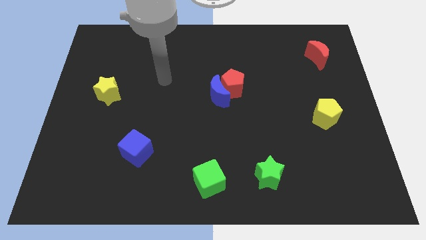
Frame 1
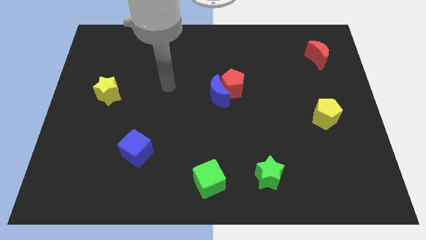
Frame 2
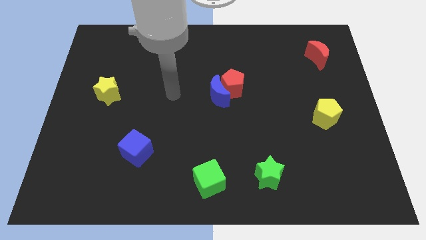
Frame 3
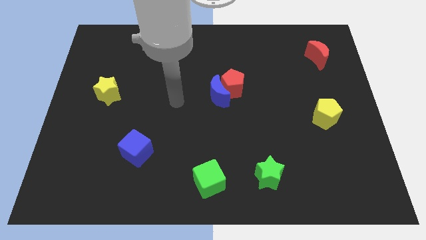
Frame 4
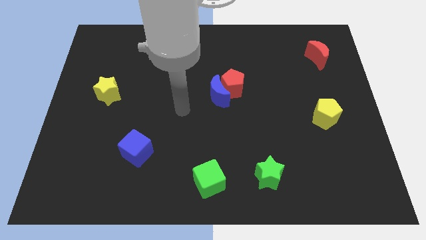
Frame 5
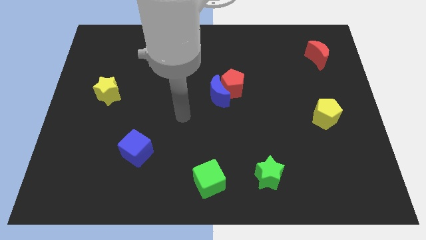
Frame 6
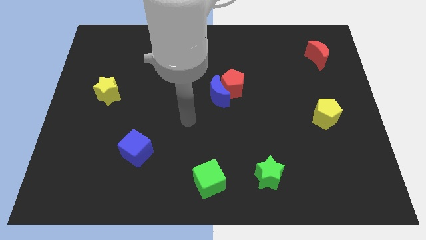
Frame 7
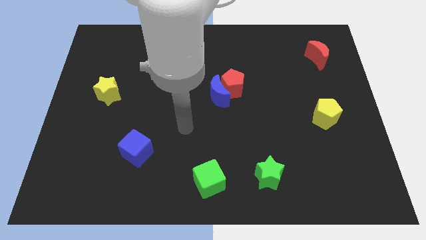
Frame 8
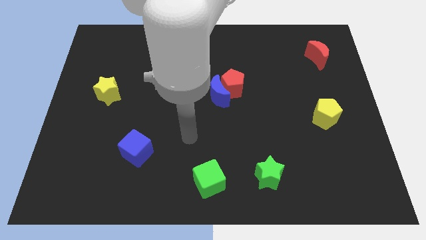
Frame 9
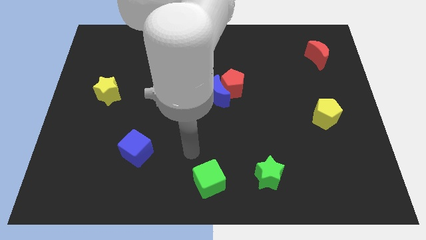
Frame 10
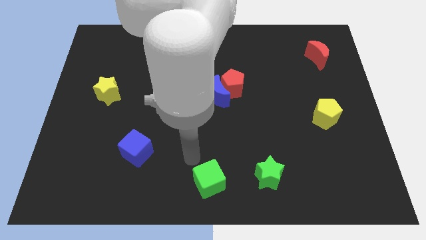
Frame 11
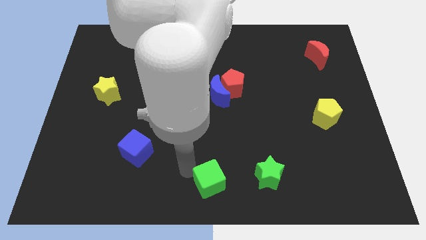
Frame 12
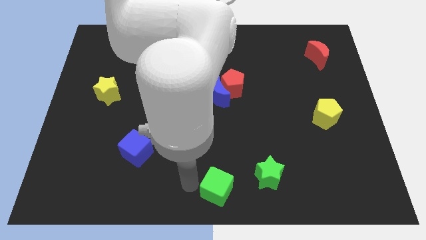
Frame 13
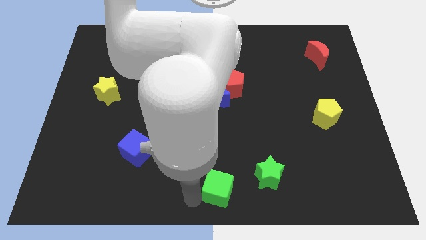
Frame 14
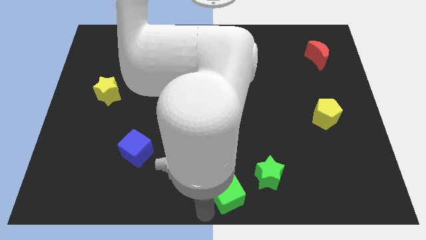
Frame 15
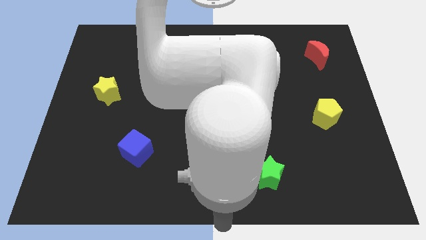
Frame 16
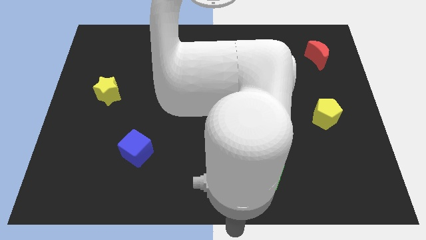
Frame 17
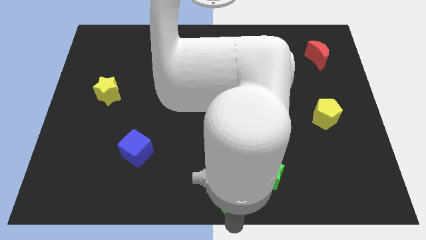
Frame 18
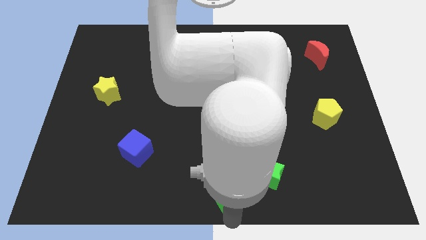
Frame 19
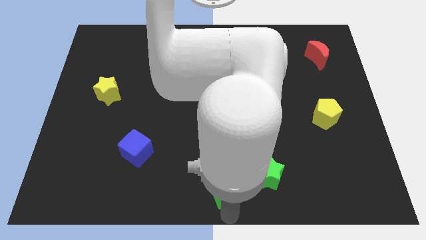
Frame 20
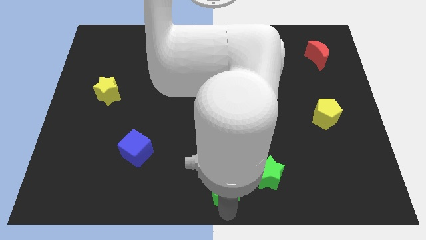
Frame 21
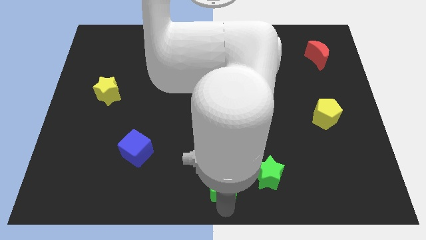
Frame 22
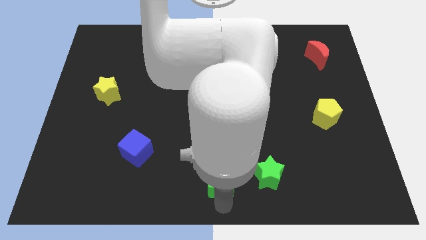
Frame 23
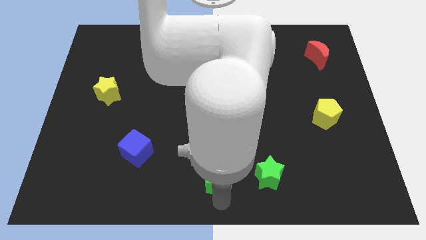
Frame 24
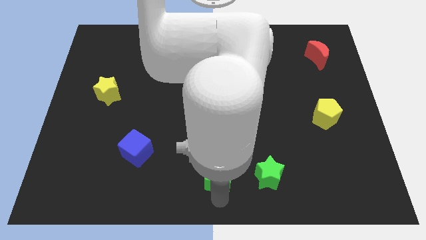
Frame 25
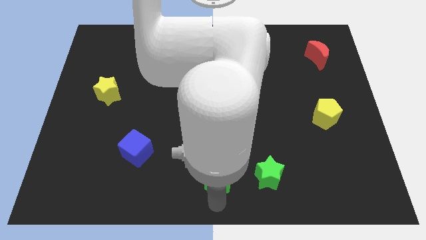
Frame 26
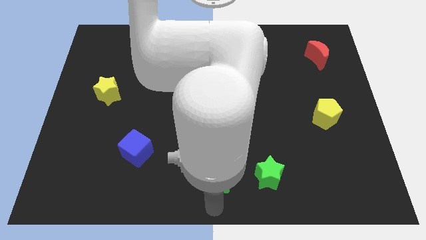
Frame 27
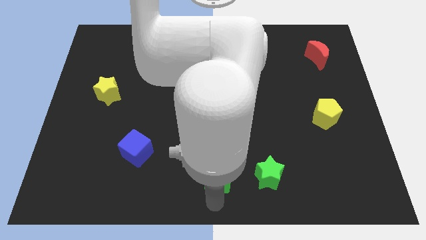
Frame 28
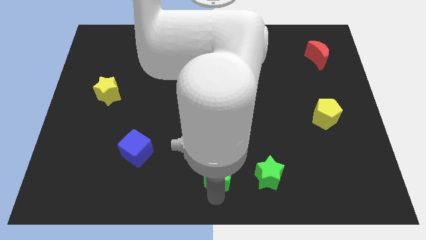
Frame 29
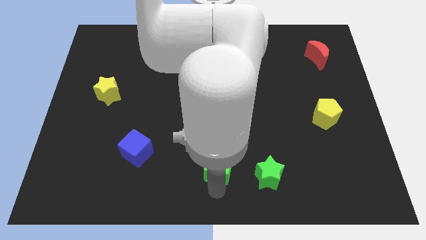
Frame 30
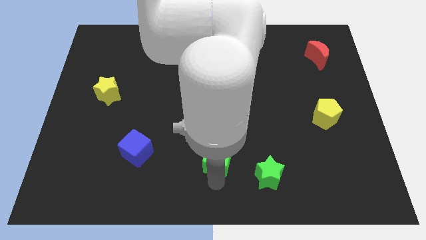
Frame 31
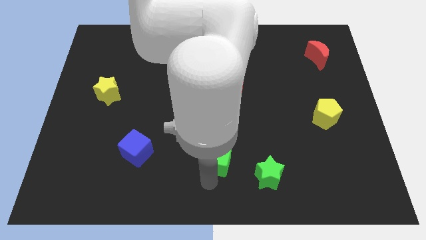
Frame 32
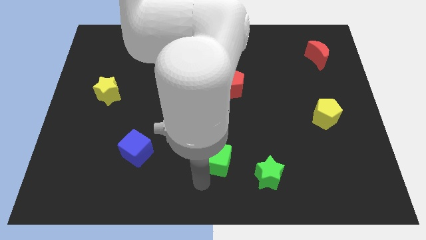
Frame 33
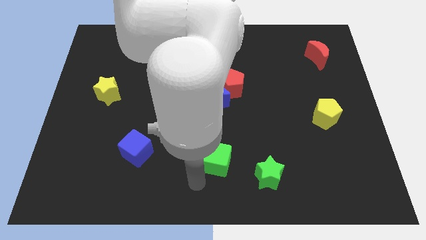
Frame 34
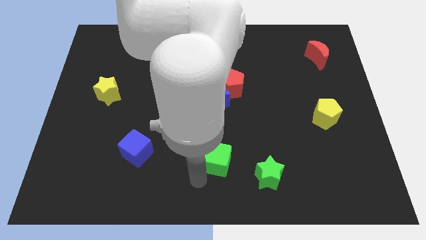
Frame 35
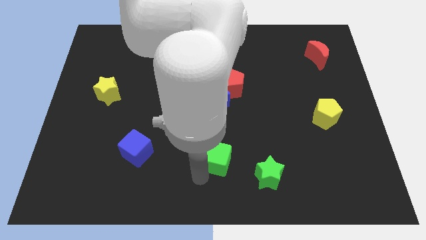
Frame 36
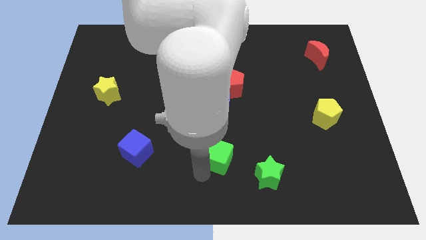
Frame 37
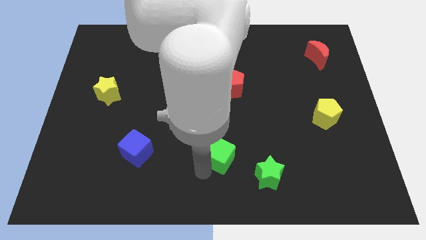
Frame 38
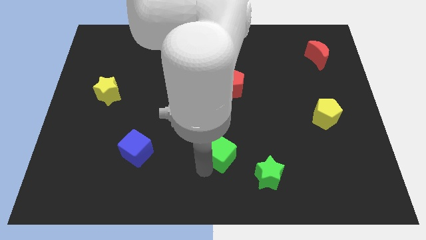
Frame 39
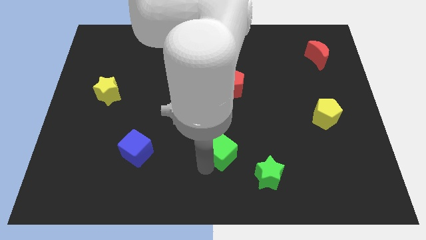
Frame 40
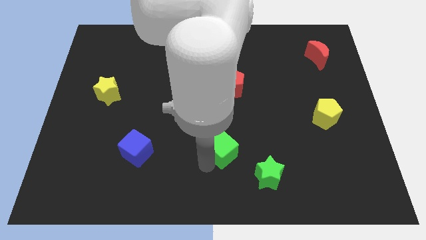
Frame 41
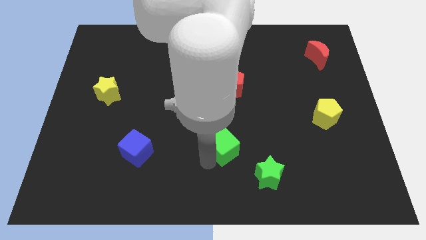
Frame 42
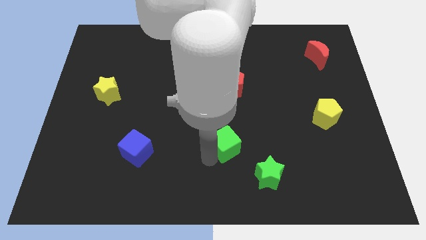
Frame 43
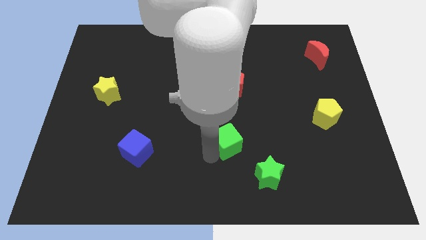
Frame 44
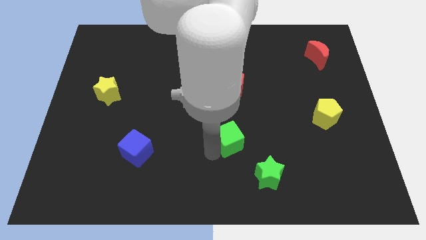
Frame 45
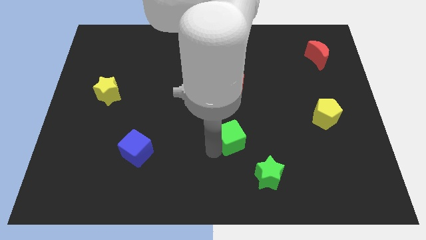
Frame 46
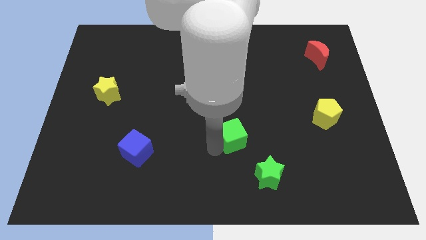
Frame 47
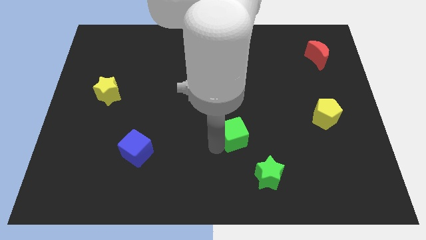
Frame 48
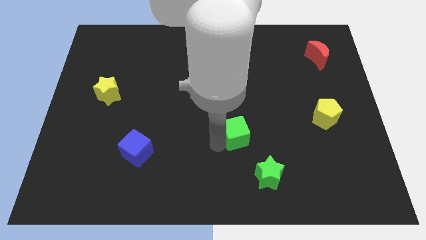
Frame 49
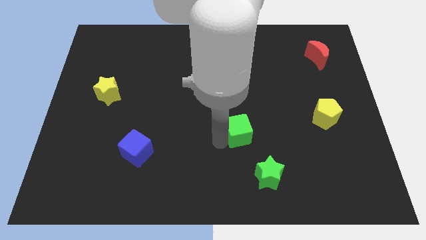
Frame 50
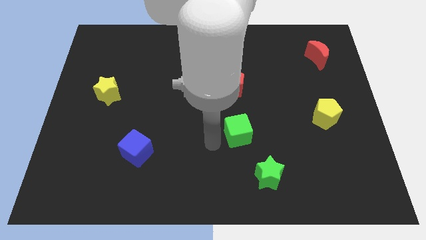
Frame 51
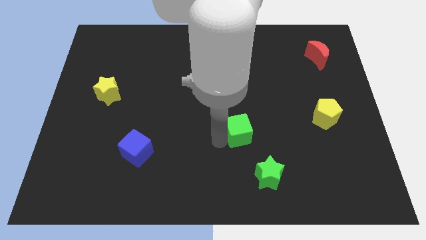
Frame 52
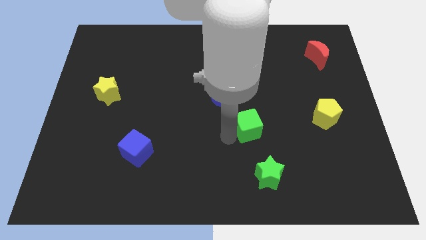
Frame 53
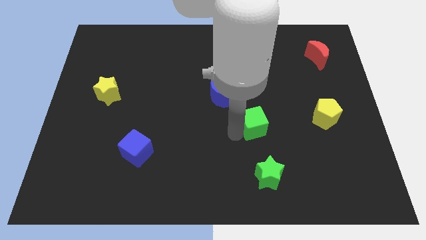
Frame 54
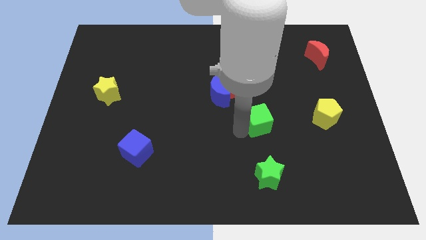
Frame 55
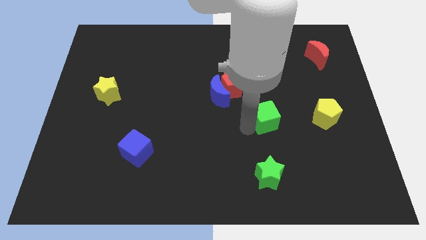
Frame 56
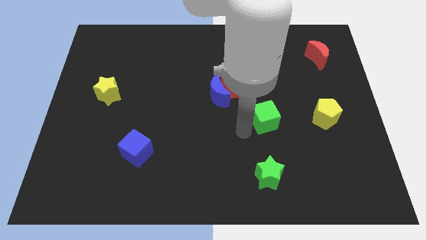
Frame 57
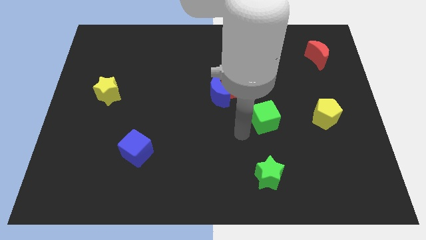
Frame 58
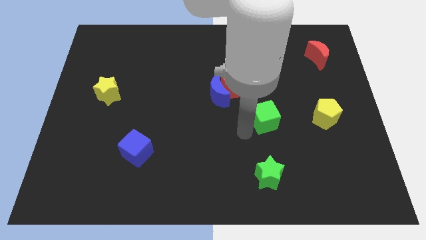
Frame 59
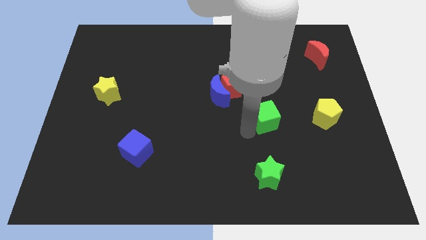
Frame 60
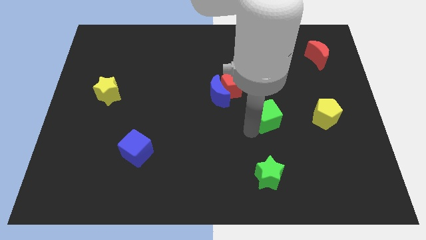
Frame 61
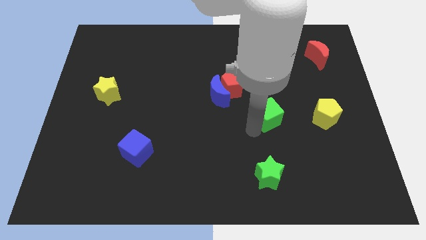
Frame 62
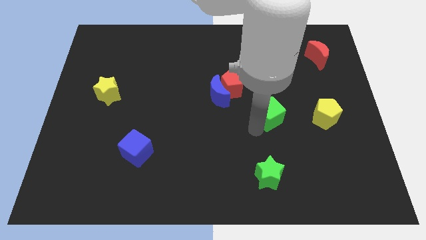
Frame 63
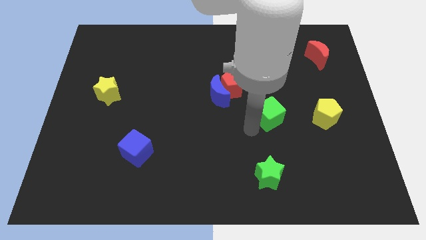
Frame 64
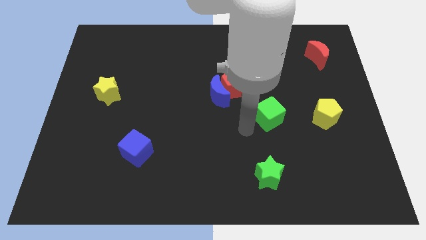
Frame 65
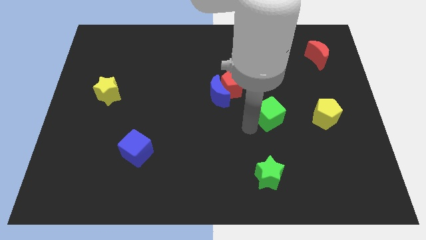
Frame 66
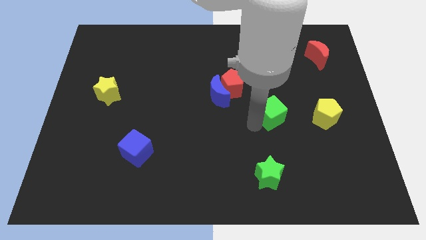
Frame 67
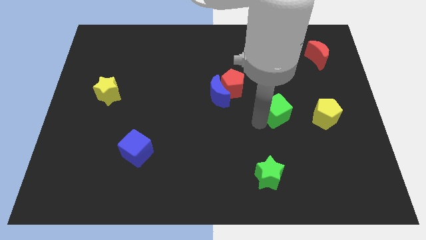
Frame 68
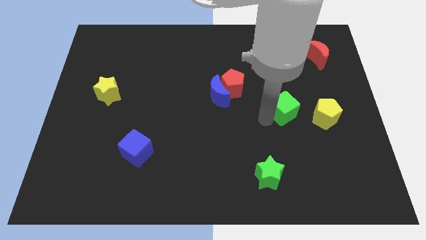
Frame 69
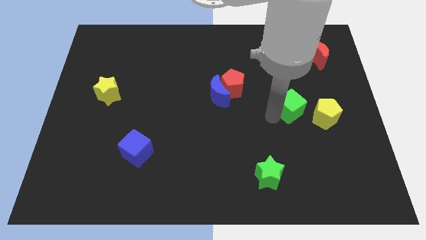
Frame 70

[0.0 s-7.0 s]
put the green cube to the top left of the yellow pentagon

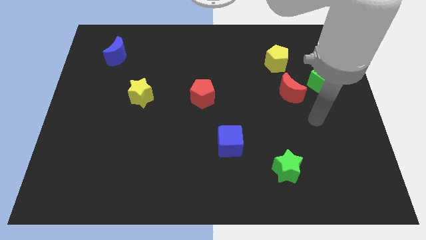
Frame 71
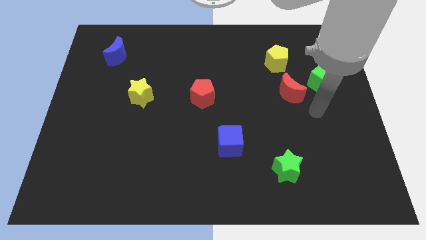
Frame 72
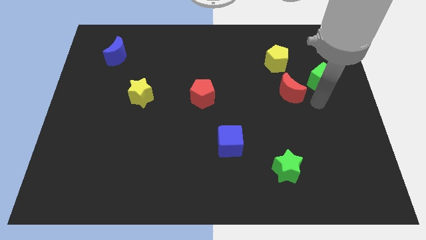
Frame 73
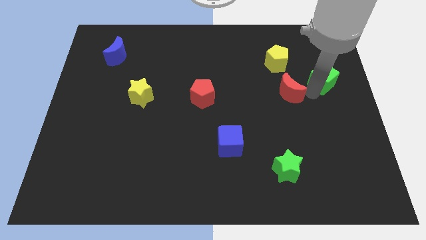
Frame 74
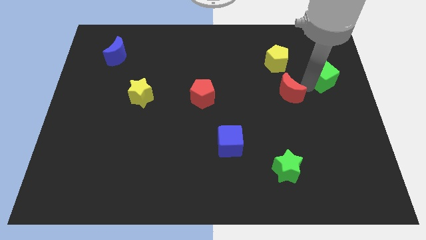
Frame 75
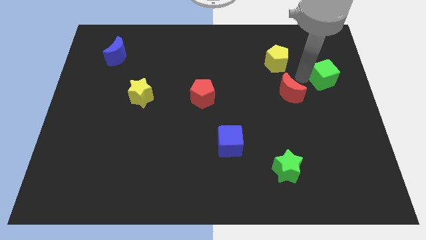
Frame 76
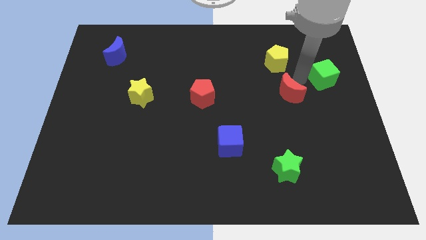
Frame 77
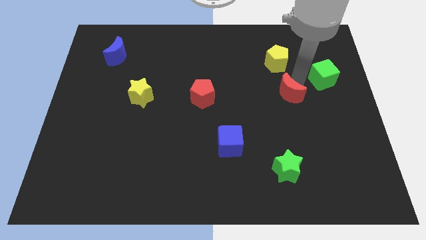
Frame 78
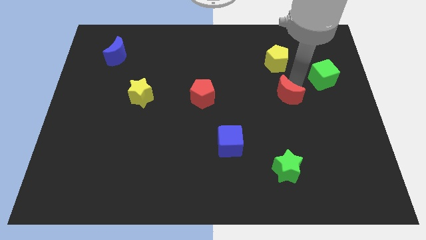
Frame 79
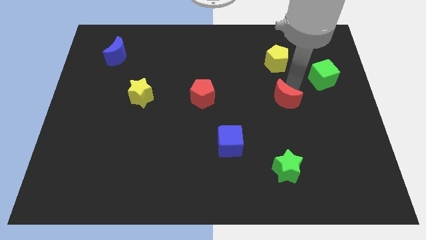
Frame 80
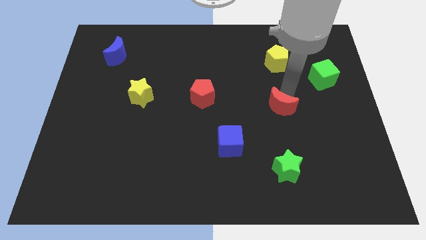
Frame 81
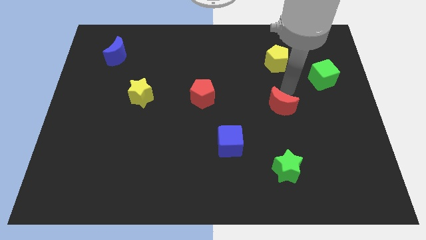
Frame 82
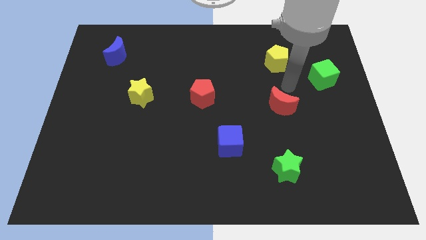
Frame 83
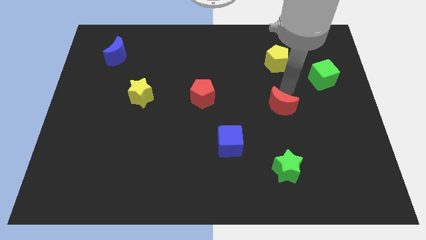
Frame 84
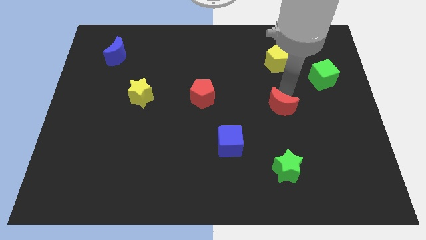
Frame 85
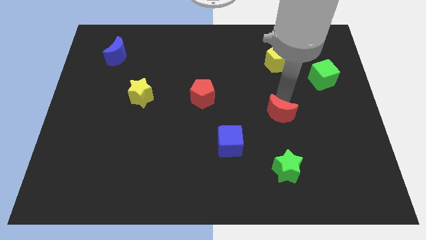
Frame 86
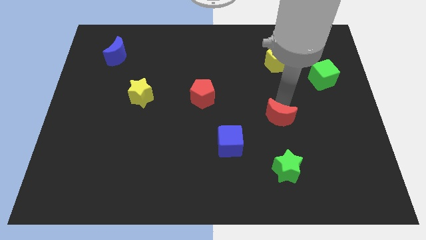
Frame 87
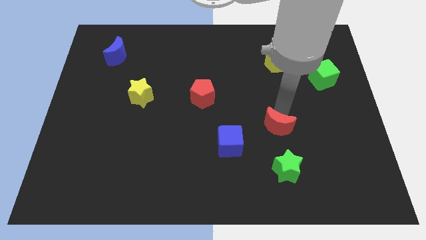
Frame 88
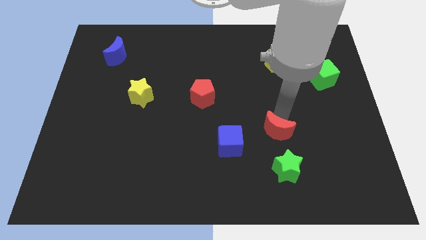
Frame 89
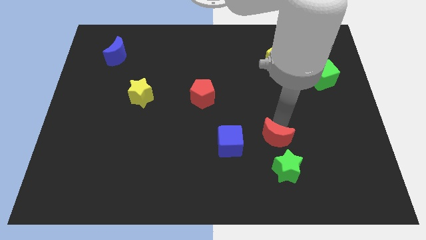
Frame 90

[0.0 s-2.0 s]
move the red moon to the top left side of the green star
